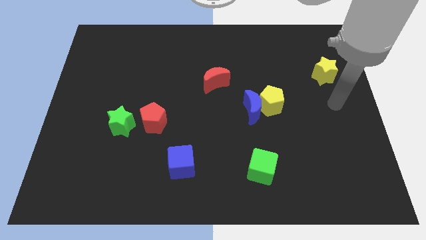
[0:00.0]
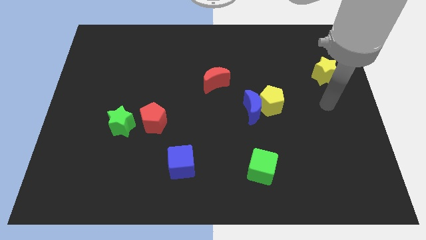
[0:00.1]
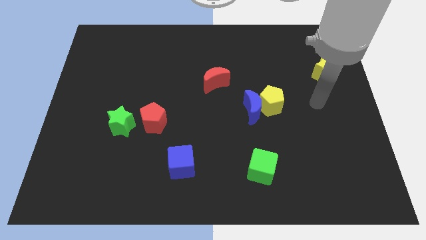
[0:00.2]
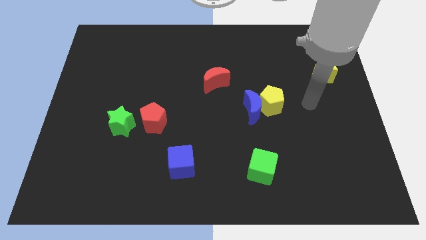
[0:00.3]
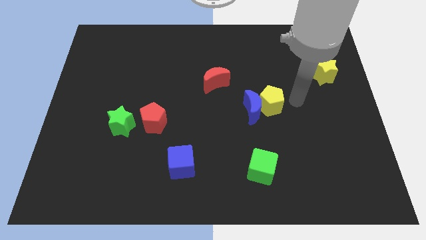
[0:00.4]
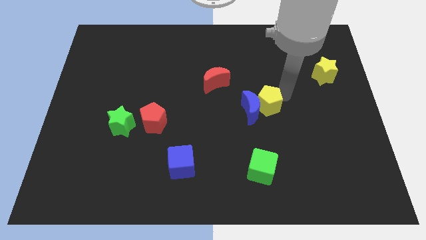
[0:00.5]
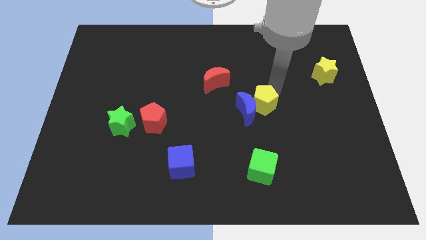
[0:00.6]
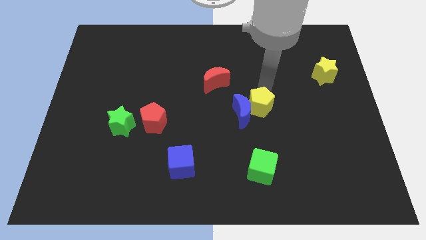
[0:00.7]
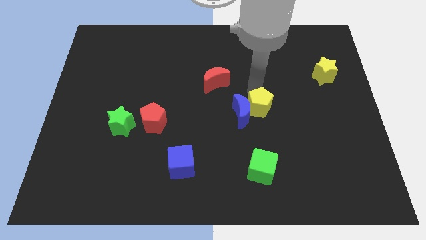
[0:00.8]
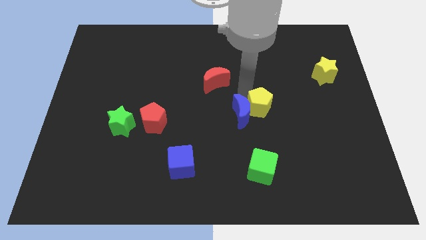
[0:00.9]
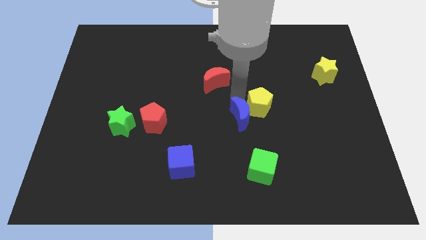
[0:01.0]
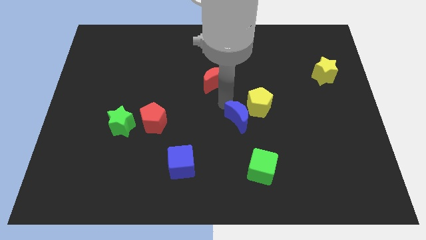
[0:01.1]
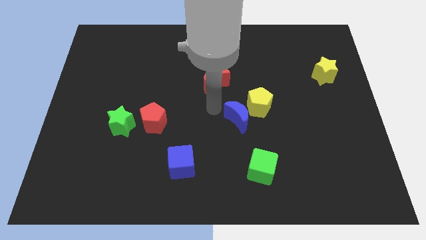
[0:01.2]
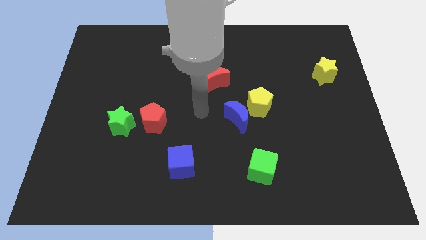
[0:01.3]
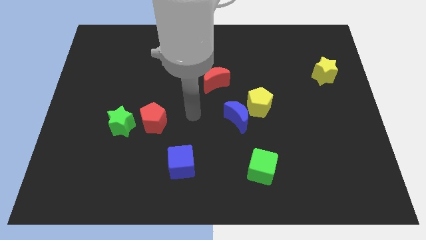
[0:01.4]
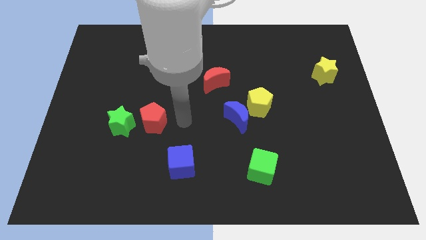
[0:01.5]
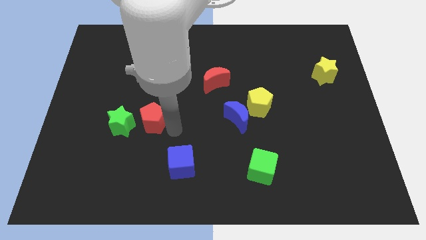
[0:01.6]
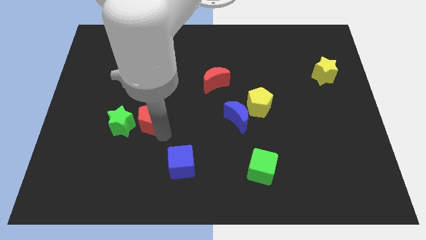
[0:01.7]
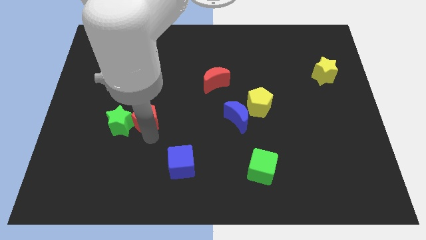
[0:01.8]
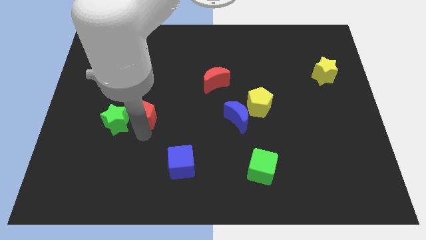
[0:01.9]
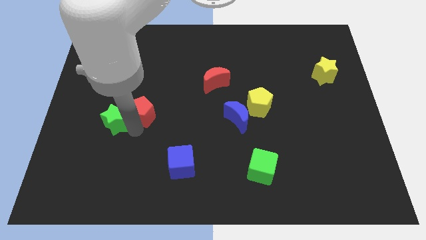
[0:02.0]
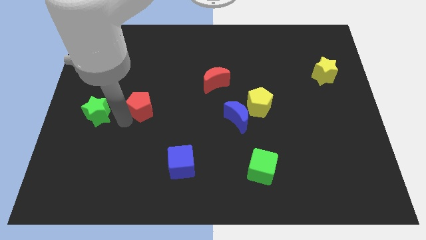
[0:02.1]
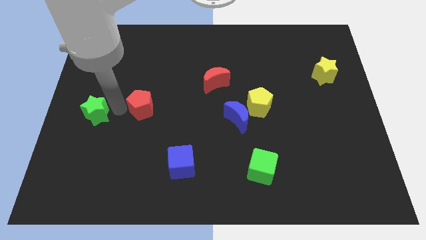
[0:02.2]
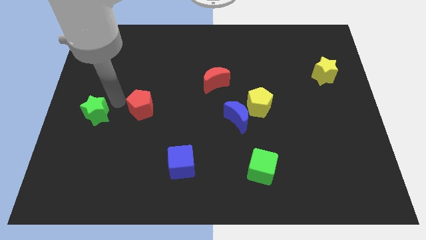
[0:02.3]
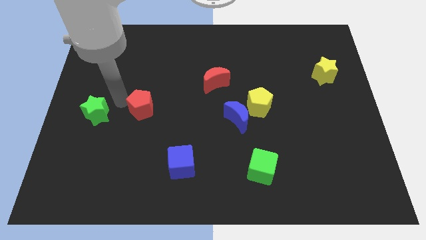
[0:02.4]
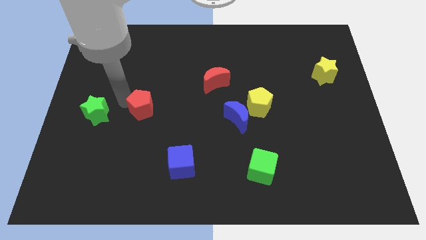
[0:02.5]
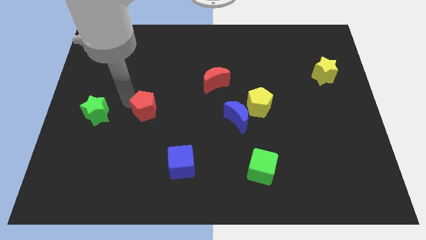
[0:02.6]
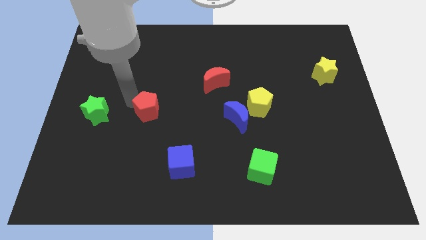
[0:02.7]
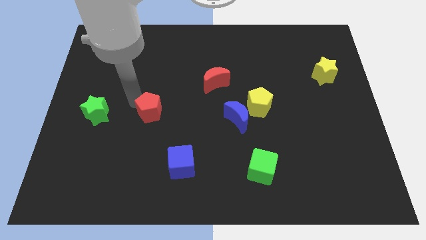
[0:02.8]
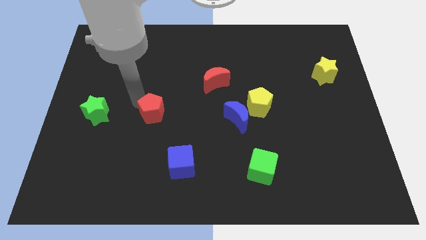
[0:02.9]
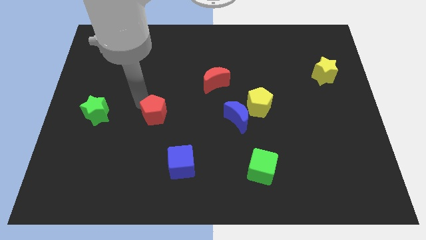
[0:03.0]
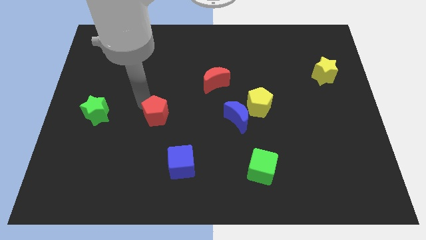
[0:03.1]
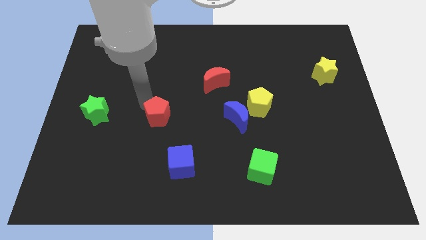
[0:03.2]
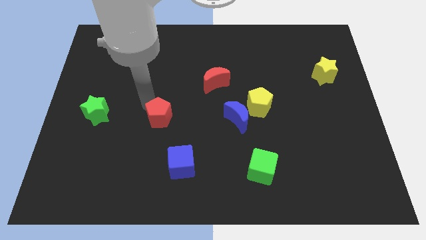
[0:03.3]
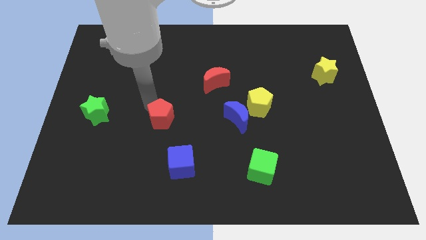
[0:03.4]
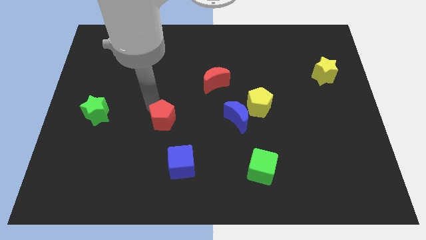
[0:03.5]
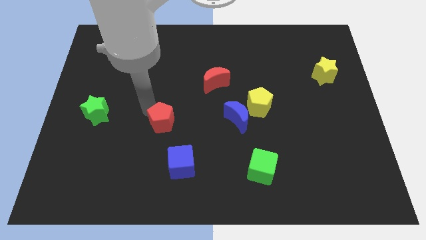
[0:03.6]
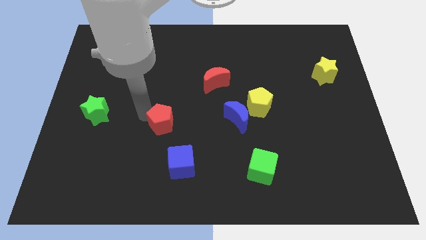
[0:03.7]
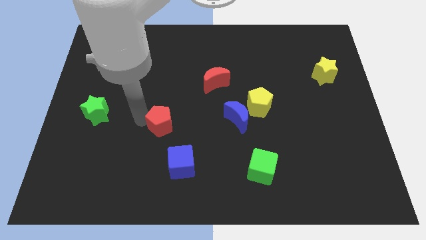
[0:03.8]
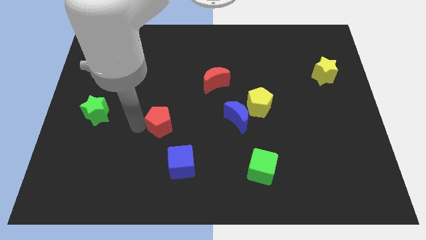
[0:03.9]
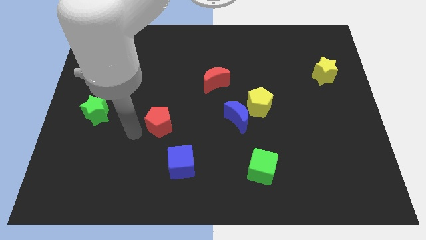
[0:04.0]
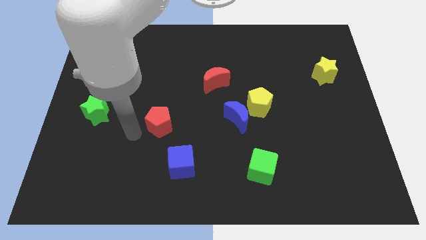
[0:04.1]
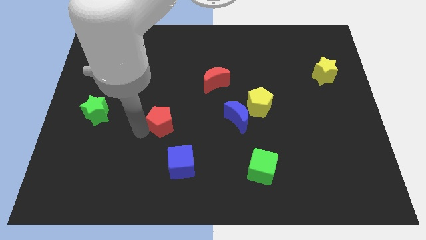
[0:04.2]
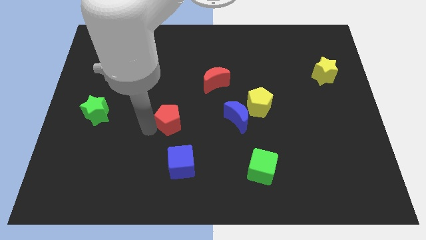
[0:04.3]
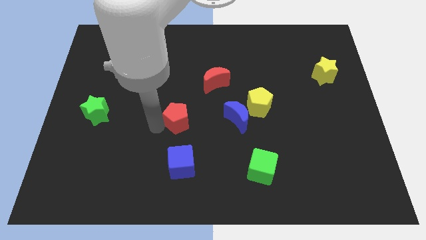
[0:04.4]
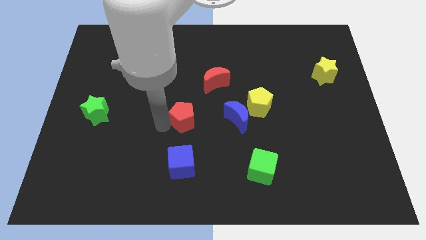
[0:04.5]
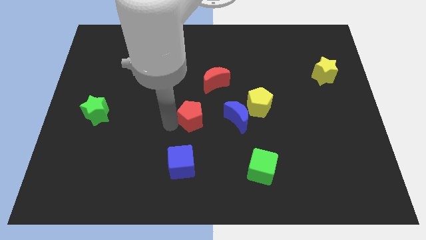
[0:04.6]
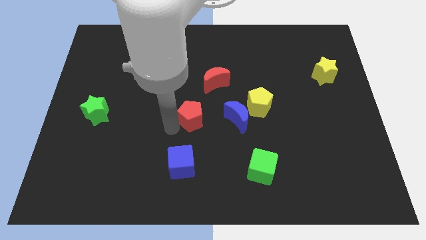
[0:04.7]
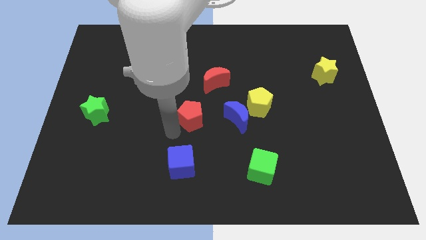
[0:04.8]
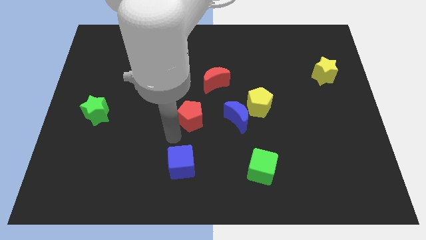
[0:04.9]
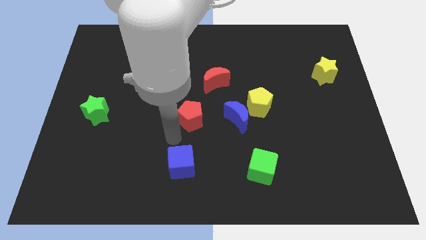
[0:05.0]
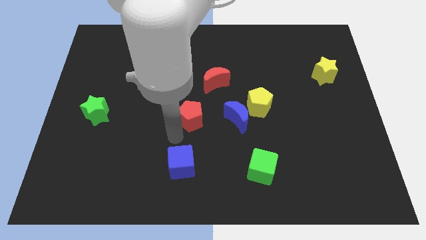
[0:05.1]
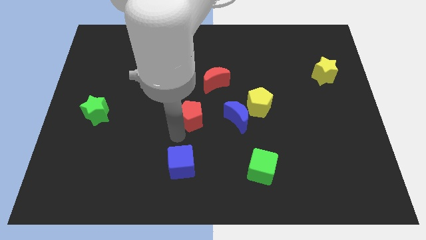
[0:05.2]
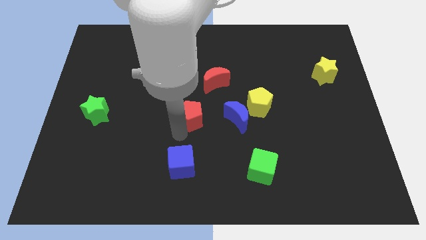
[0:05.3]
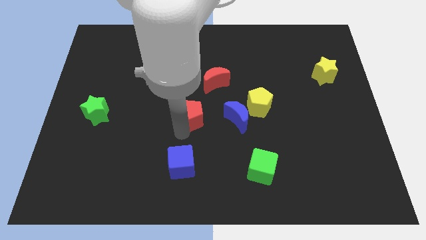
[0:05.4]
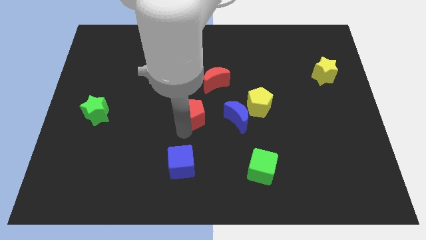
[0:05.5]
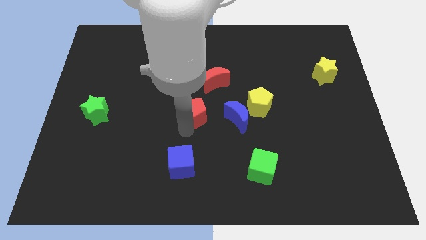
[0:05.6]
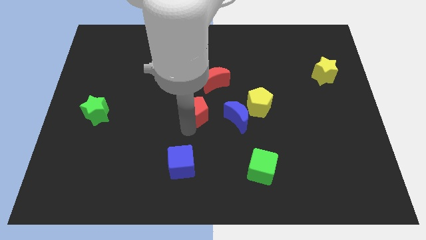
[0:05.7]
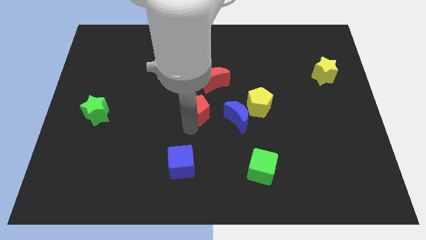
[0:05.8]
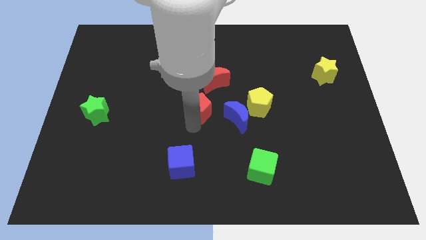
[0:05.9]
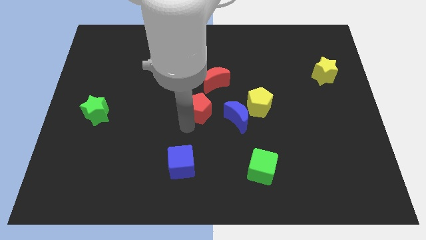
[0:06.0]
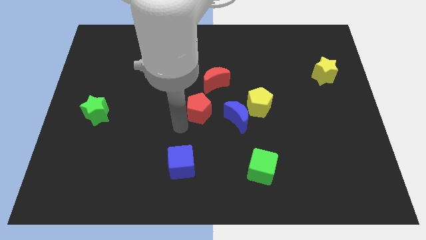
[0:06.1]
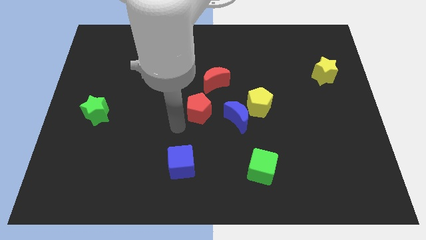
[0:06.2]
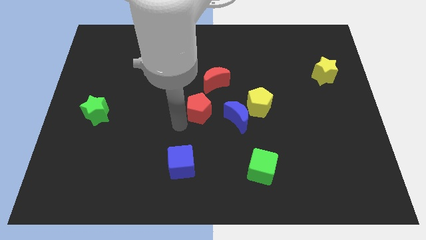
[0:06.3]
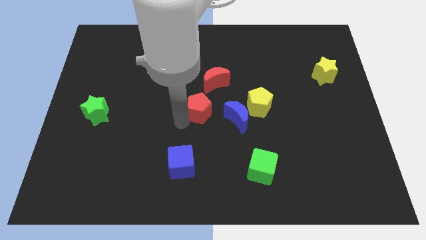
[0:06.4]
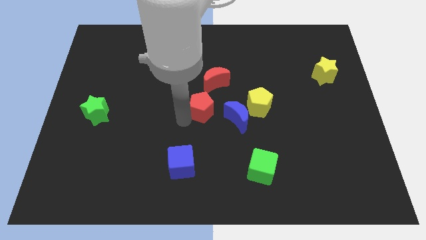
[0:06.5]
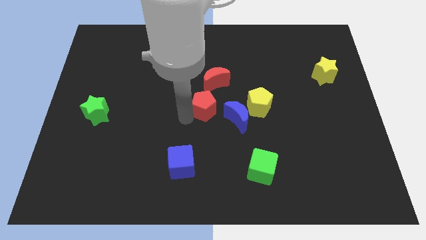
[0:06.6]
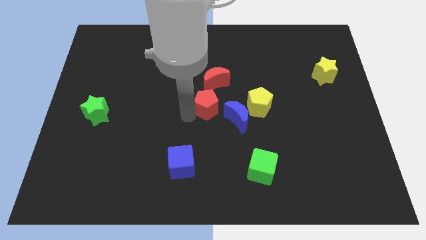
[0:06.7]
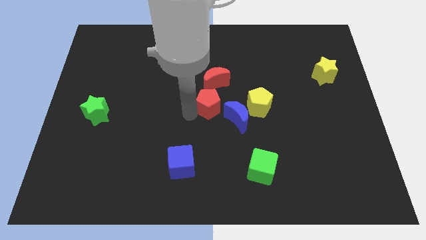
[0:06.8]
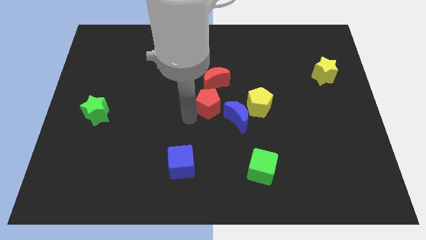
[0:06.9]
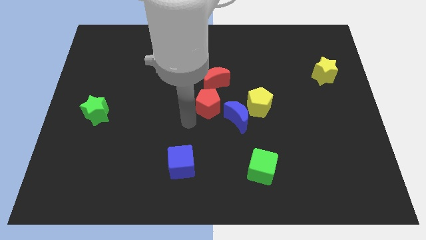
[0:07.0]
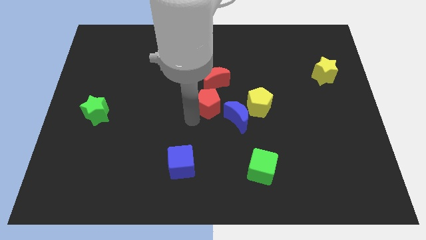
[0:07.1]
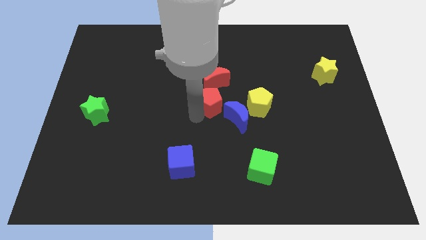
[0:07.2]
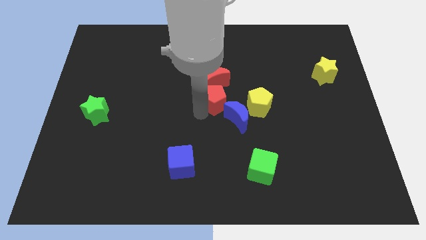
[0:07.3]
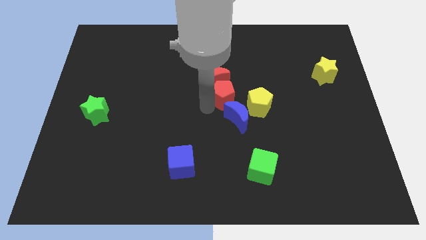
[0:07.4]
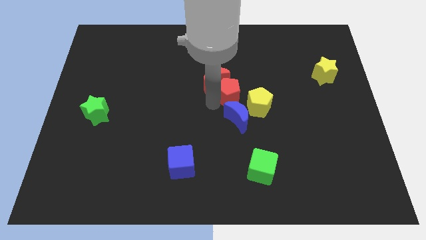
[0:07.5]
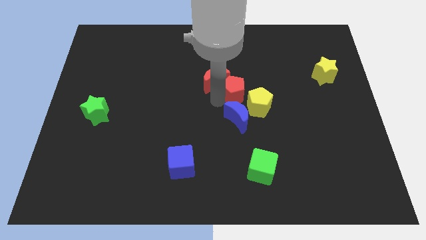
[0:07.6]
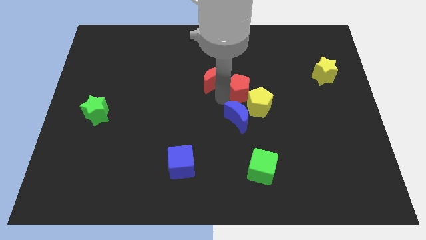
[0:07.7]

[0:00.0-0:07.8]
slide the red pentagon to the yellow pentagon
